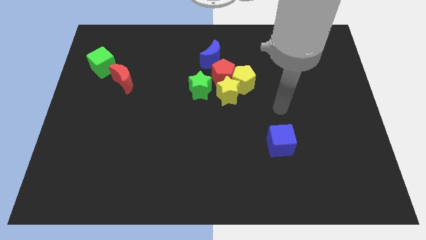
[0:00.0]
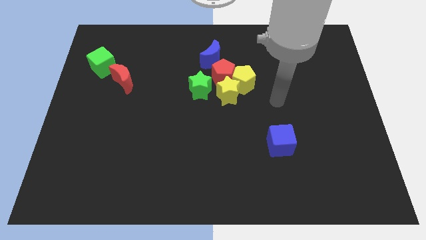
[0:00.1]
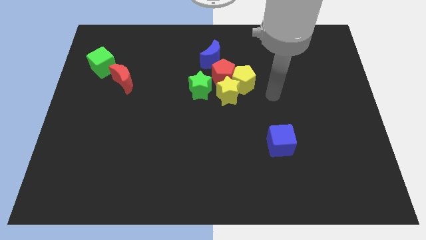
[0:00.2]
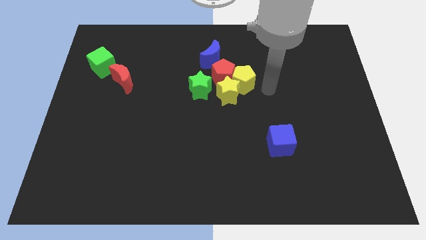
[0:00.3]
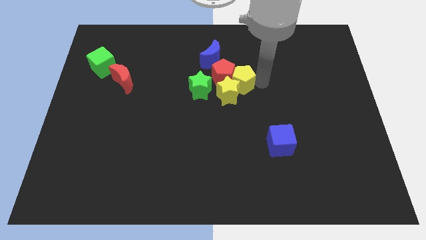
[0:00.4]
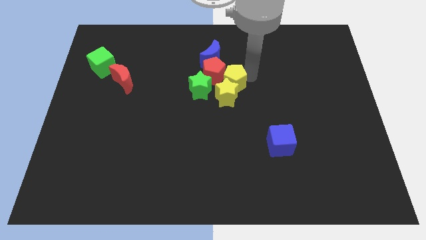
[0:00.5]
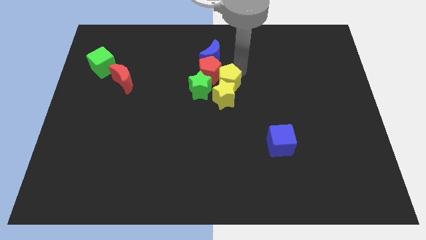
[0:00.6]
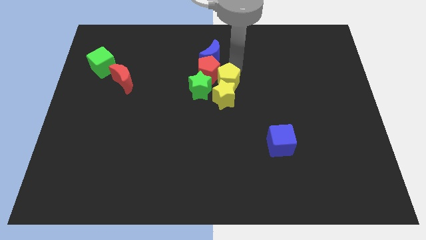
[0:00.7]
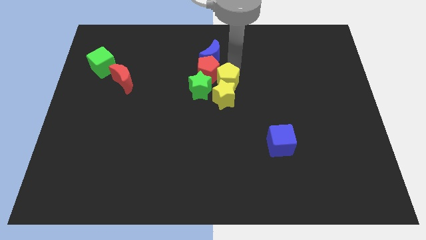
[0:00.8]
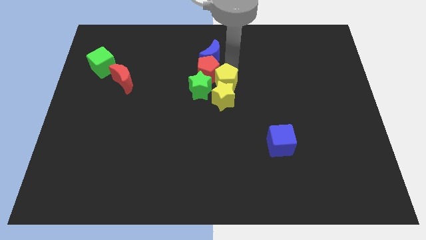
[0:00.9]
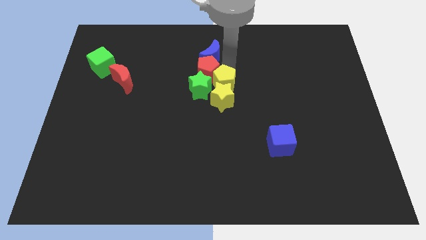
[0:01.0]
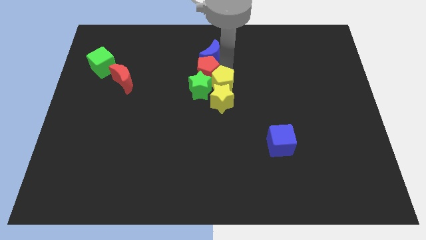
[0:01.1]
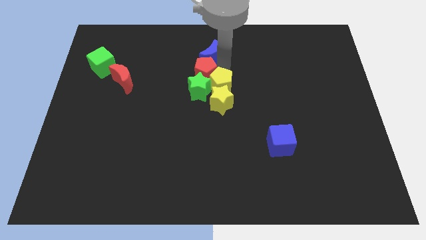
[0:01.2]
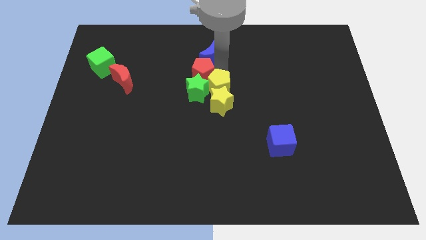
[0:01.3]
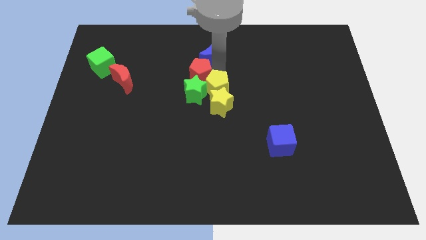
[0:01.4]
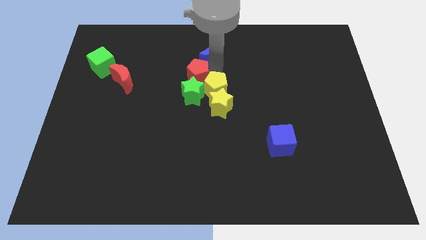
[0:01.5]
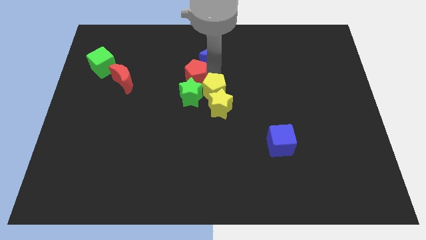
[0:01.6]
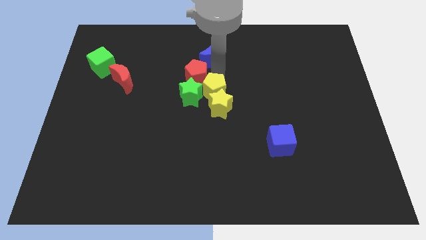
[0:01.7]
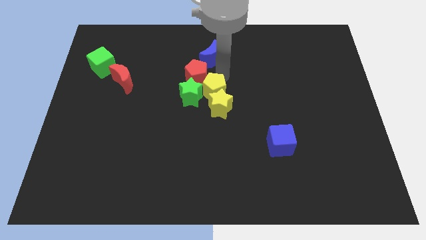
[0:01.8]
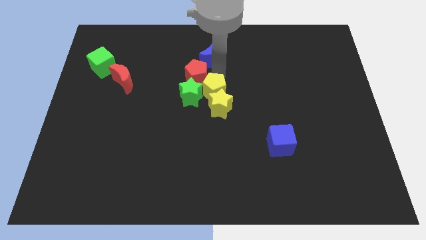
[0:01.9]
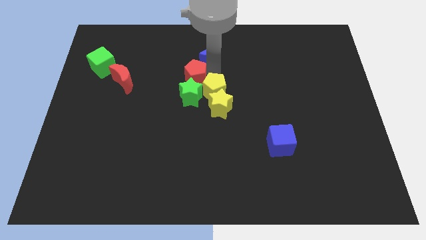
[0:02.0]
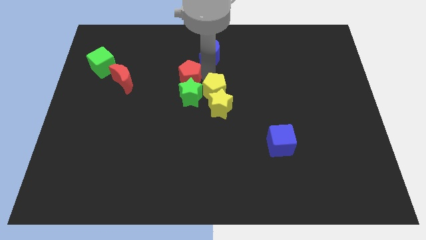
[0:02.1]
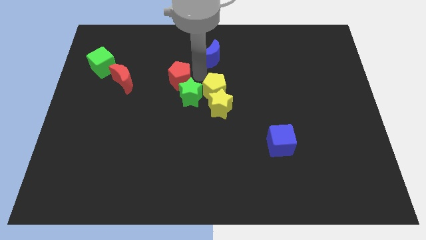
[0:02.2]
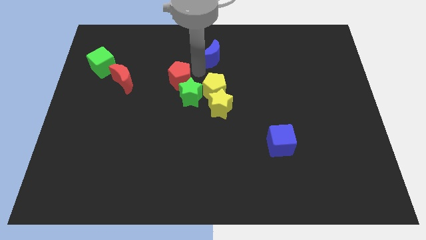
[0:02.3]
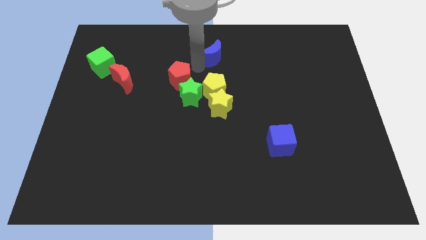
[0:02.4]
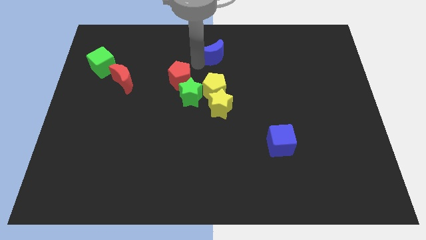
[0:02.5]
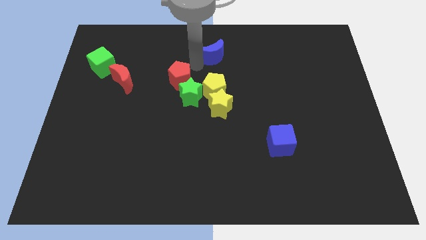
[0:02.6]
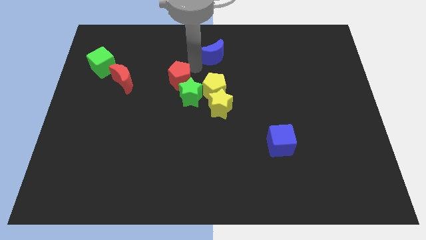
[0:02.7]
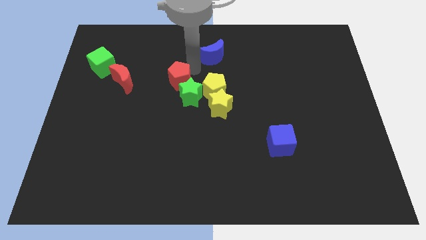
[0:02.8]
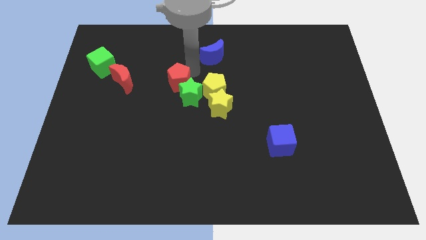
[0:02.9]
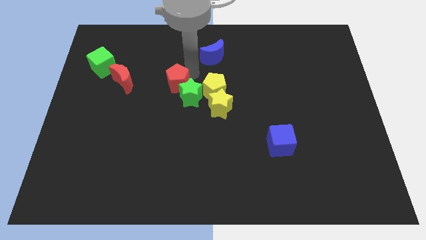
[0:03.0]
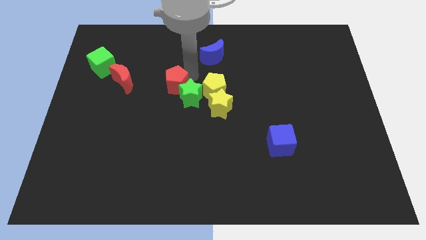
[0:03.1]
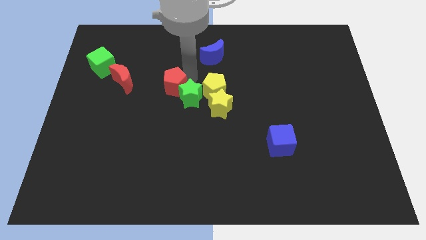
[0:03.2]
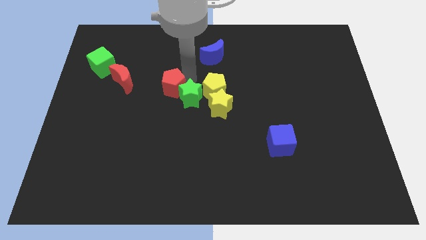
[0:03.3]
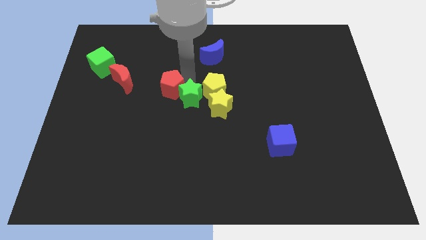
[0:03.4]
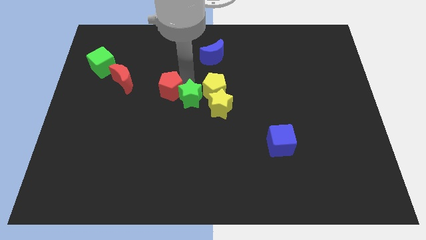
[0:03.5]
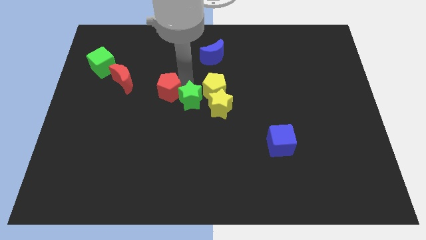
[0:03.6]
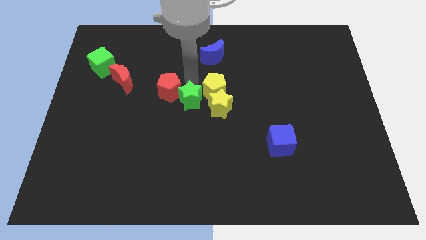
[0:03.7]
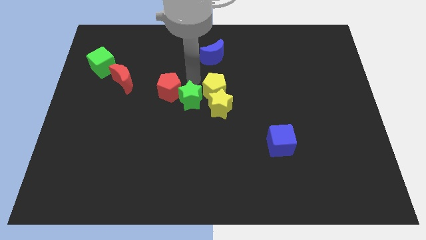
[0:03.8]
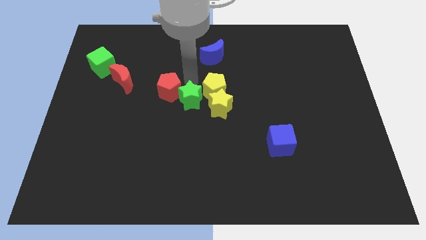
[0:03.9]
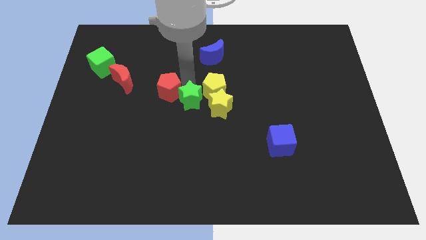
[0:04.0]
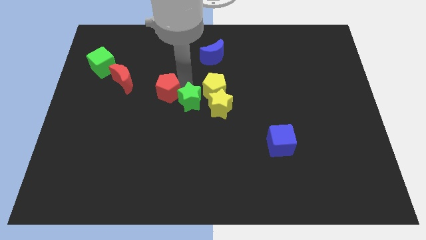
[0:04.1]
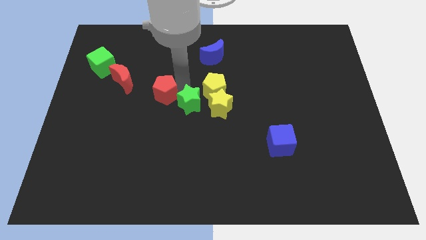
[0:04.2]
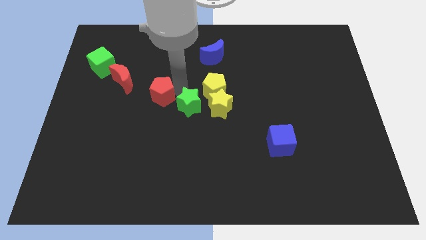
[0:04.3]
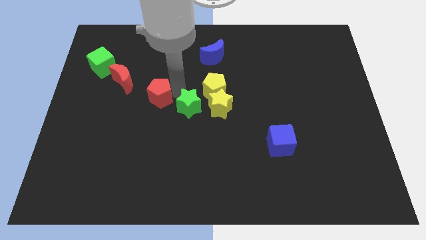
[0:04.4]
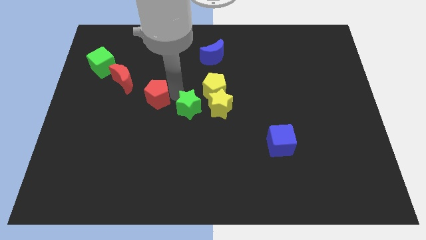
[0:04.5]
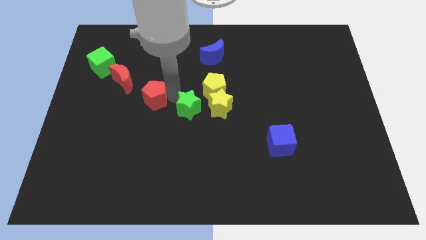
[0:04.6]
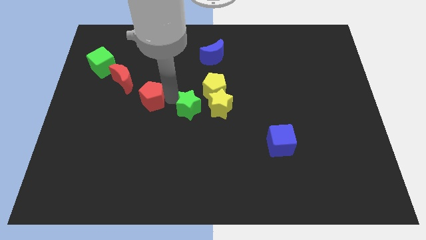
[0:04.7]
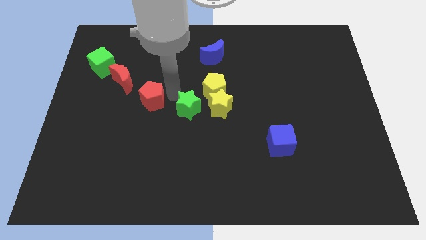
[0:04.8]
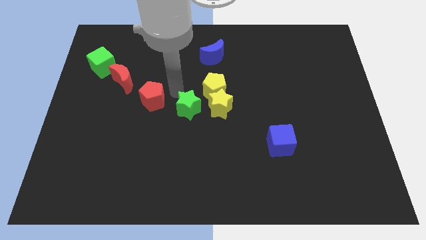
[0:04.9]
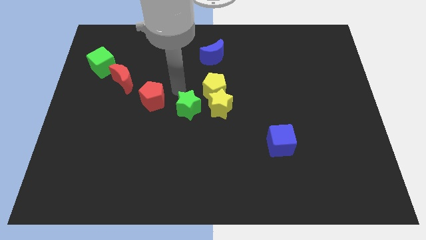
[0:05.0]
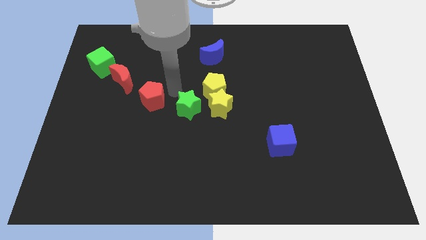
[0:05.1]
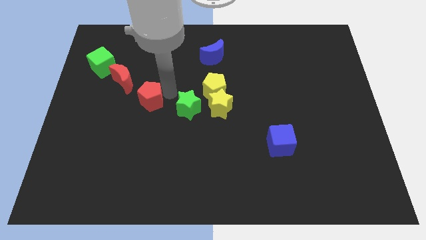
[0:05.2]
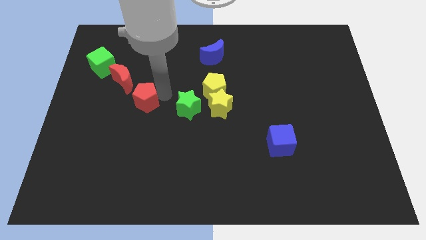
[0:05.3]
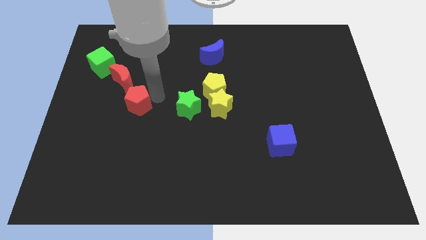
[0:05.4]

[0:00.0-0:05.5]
push the red pentagon to the bottom side of the red moon

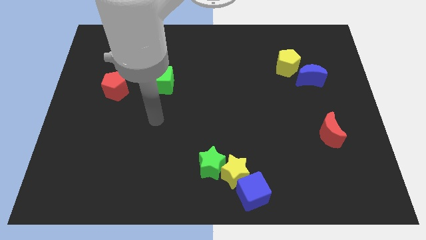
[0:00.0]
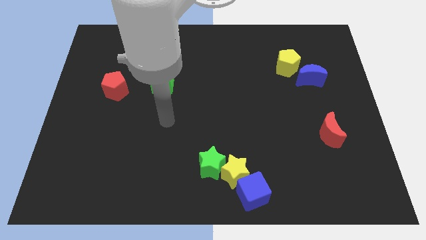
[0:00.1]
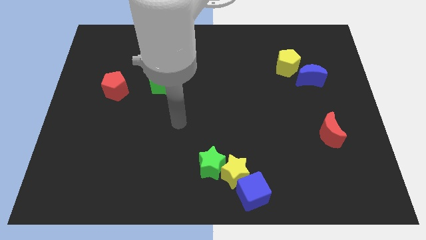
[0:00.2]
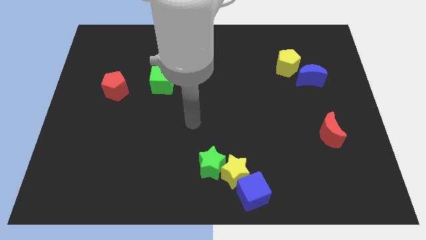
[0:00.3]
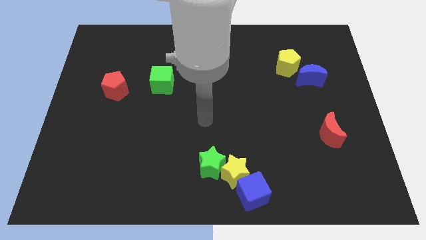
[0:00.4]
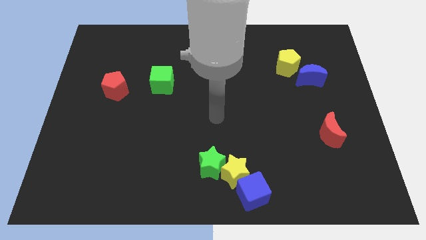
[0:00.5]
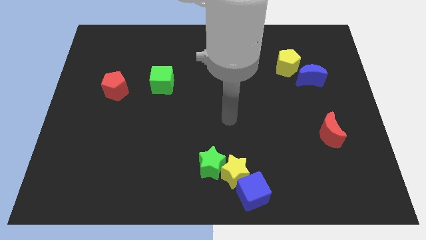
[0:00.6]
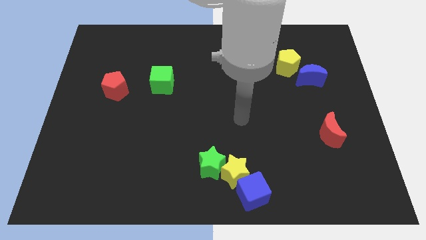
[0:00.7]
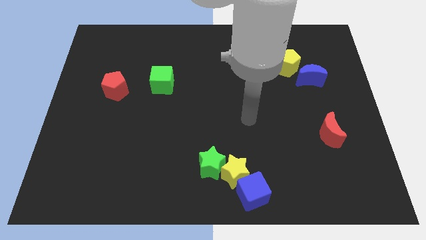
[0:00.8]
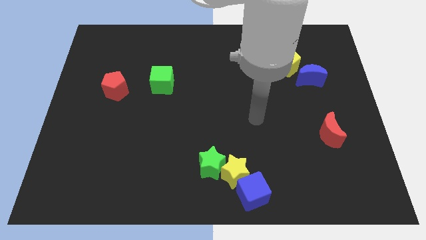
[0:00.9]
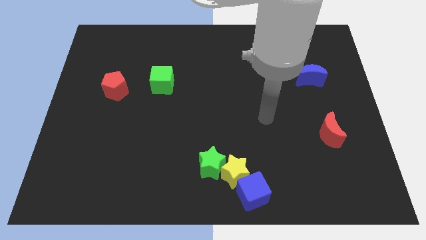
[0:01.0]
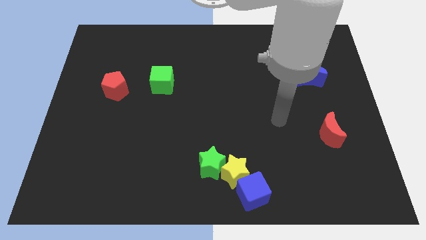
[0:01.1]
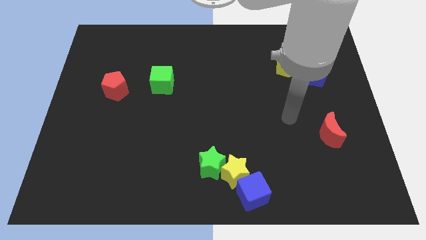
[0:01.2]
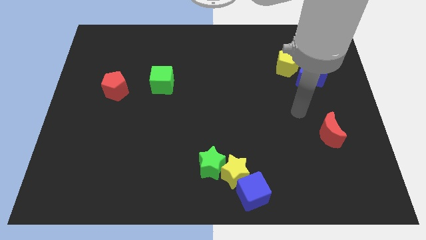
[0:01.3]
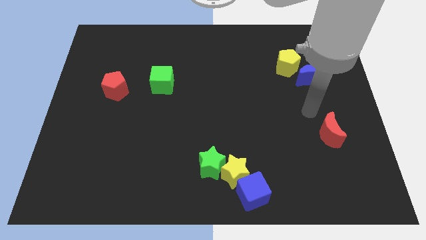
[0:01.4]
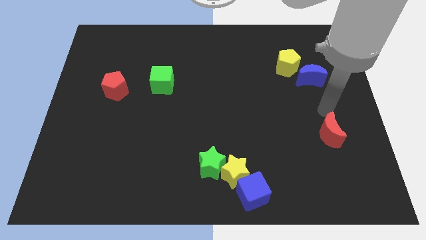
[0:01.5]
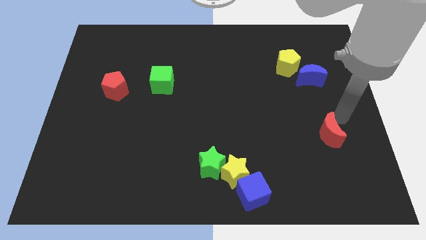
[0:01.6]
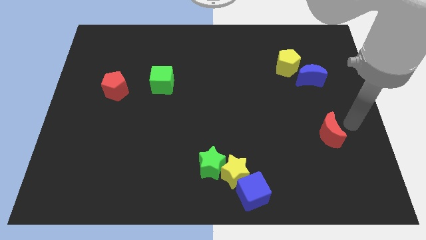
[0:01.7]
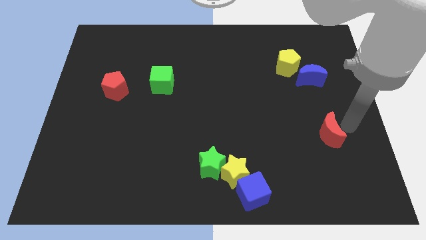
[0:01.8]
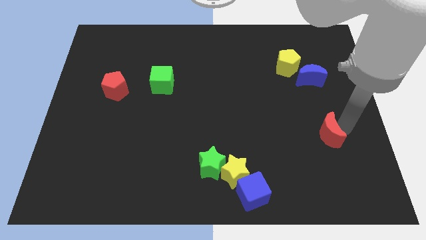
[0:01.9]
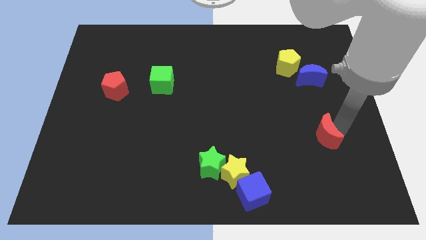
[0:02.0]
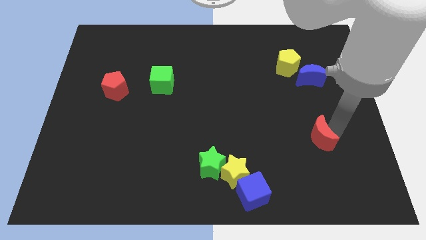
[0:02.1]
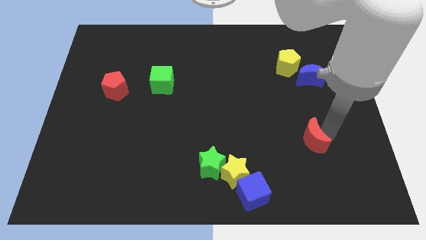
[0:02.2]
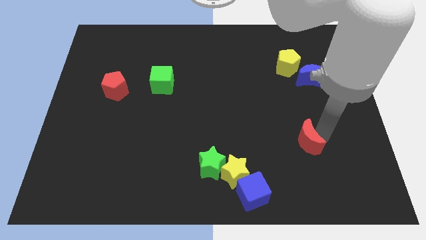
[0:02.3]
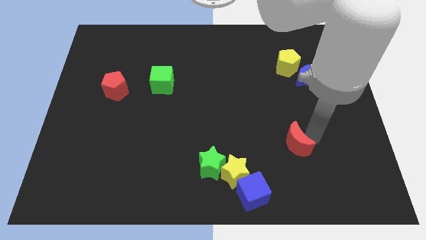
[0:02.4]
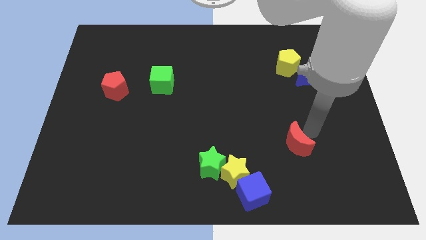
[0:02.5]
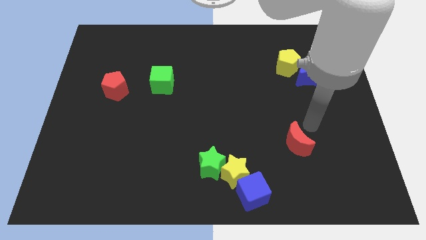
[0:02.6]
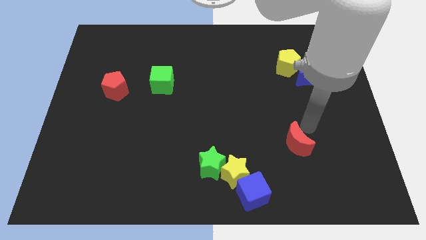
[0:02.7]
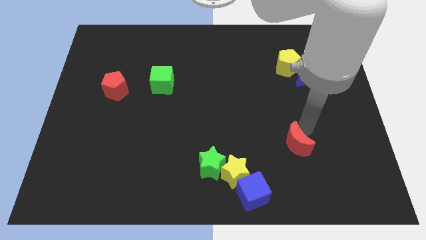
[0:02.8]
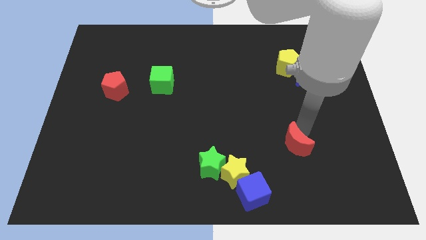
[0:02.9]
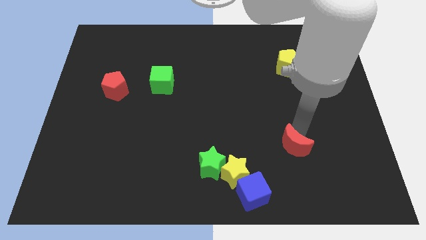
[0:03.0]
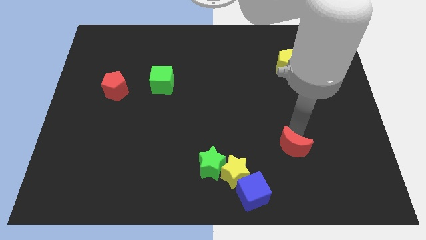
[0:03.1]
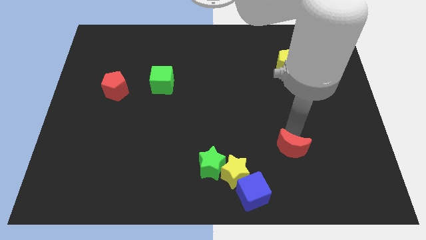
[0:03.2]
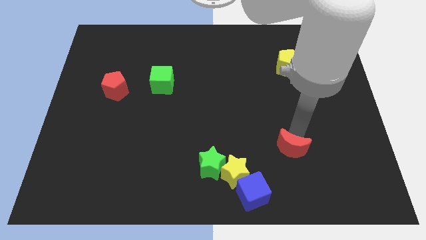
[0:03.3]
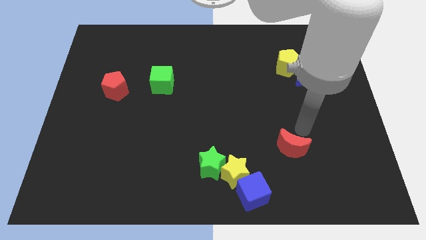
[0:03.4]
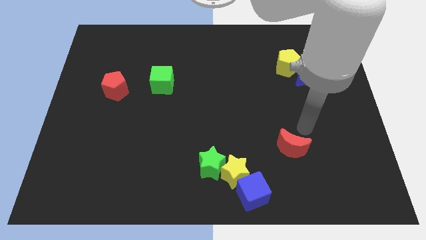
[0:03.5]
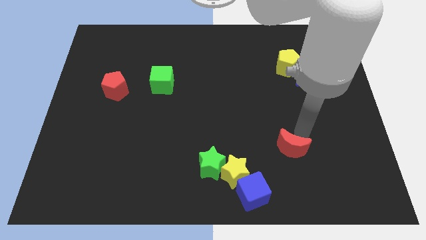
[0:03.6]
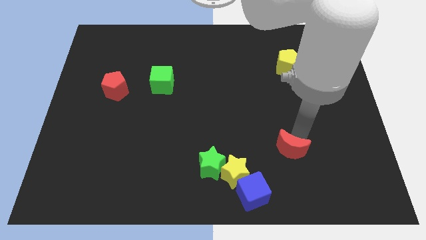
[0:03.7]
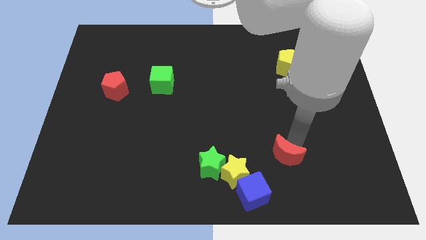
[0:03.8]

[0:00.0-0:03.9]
put the red moon diagonally up and to the right of the blue cube
